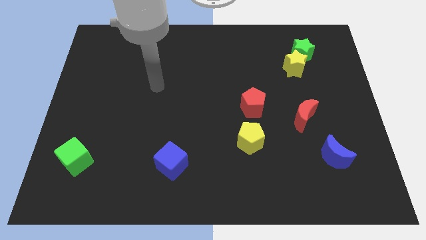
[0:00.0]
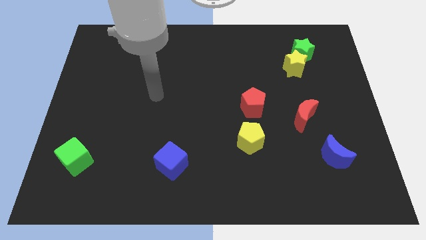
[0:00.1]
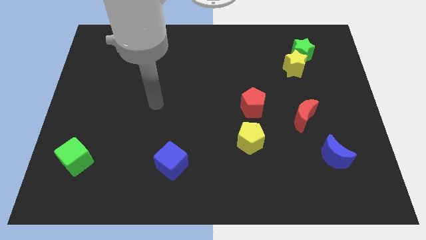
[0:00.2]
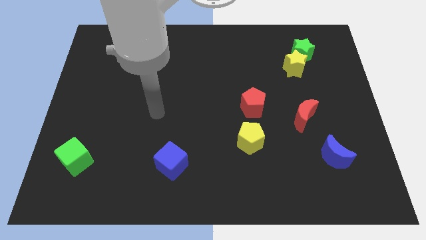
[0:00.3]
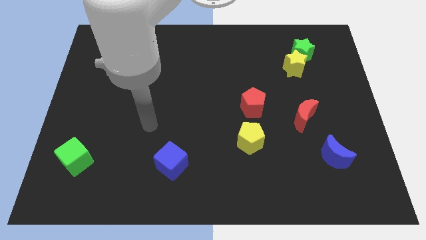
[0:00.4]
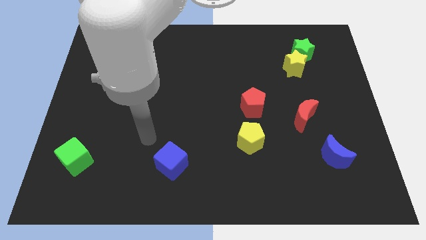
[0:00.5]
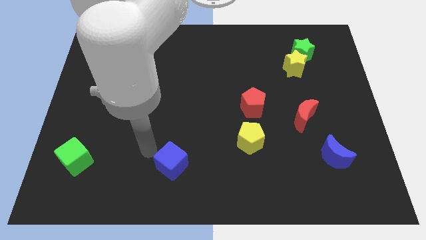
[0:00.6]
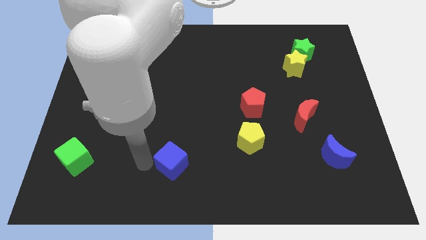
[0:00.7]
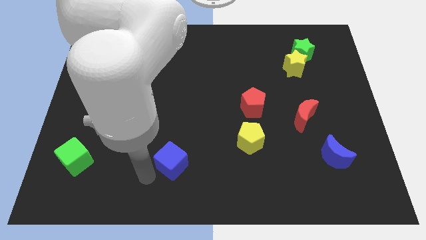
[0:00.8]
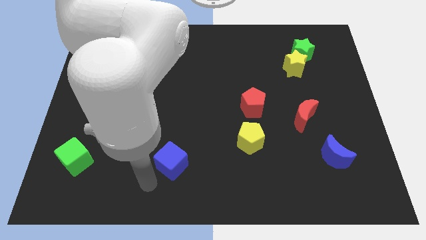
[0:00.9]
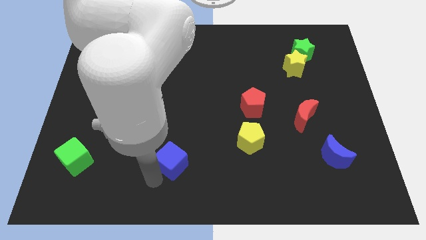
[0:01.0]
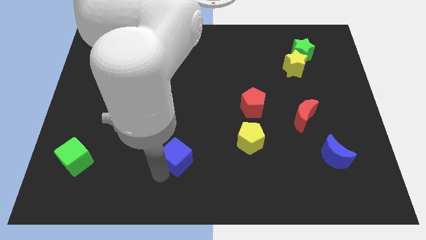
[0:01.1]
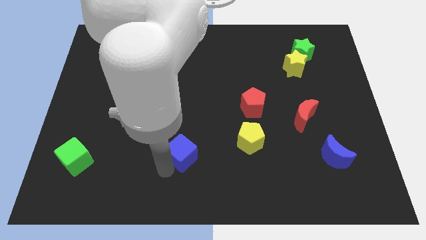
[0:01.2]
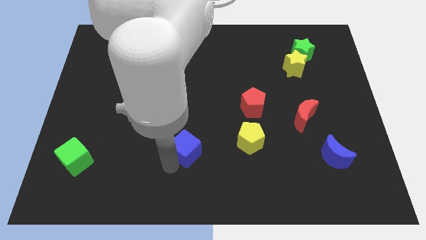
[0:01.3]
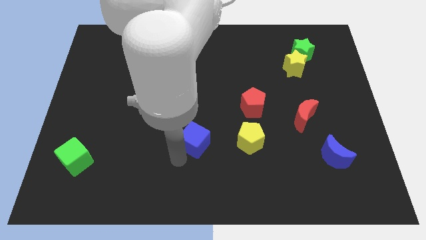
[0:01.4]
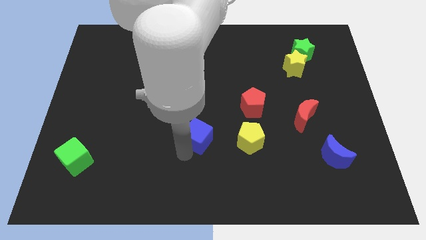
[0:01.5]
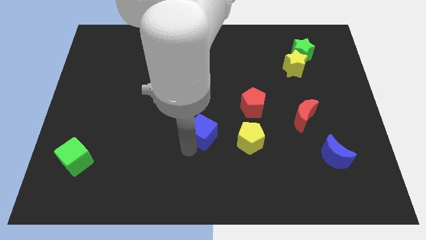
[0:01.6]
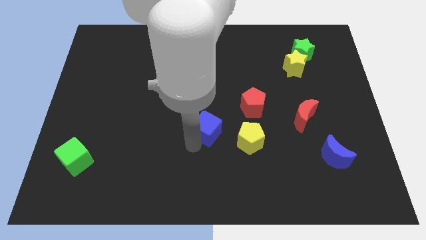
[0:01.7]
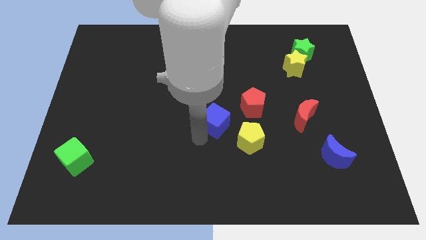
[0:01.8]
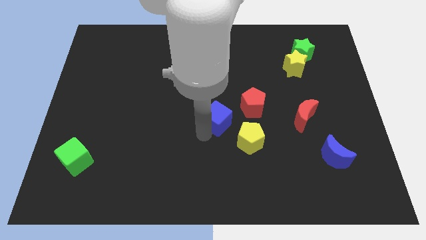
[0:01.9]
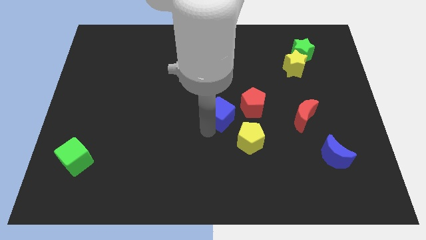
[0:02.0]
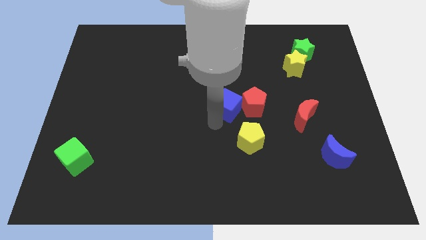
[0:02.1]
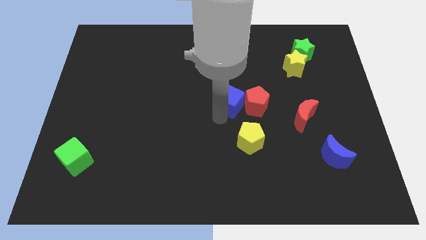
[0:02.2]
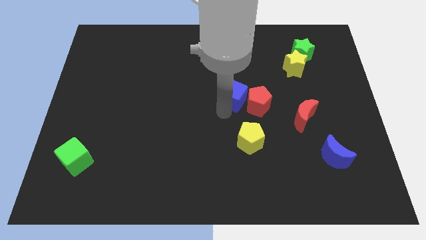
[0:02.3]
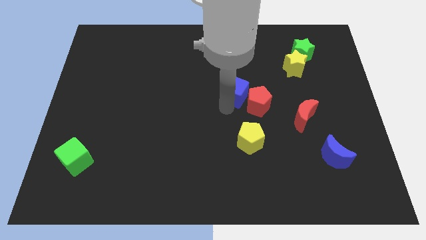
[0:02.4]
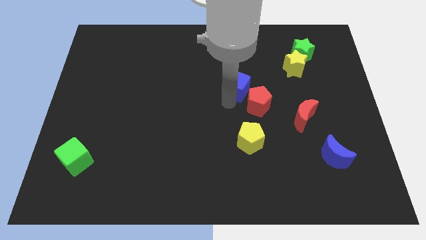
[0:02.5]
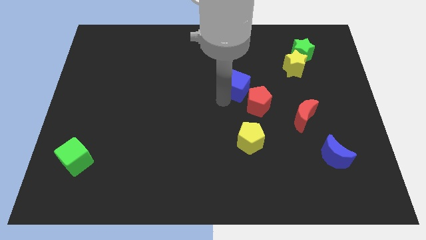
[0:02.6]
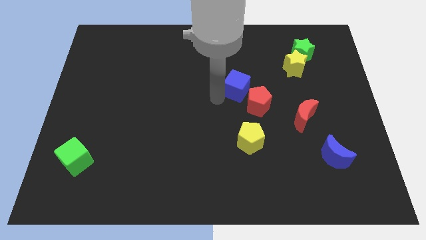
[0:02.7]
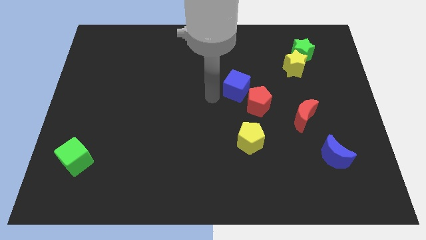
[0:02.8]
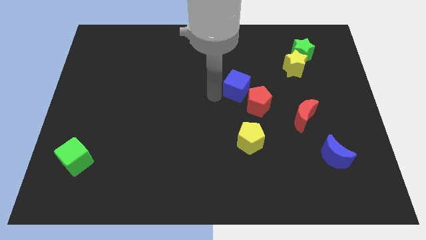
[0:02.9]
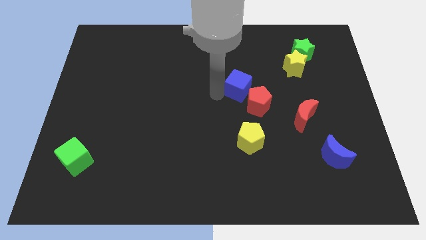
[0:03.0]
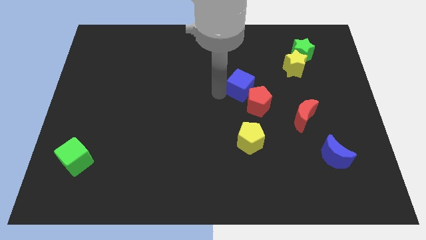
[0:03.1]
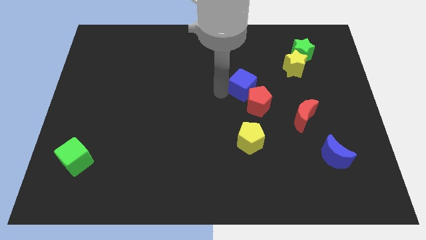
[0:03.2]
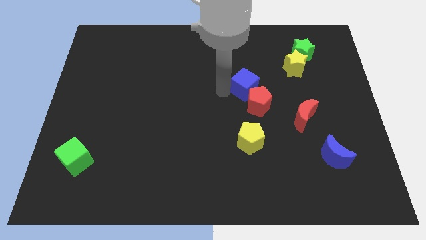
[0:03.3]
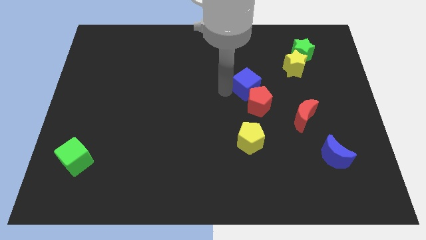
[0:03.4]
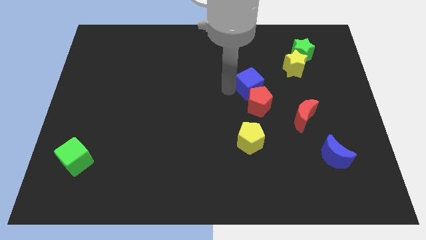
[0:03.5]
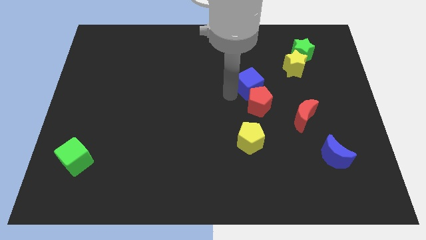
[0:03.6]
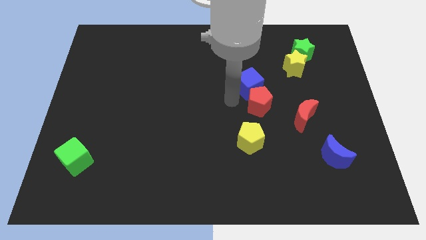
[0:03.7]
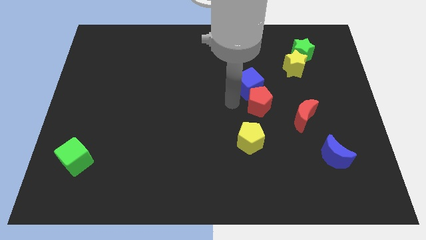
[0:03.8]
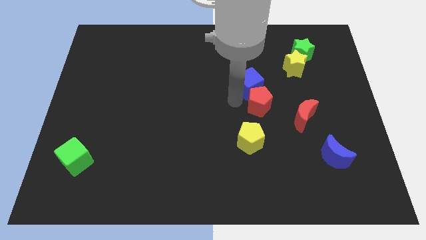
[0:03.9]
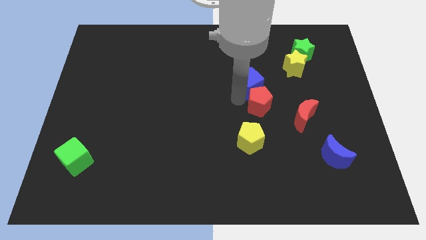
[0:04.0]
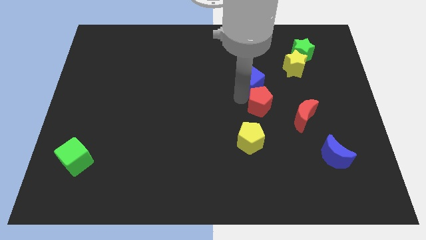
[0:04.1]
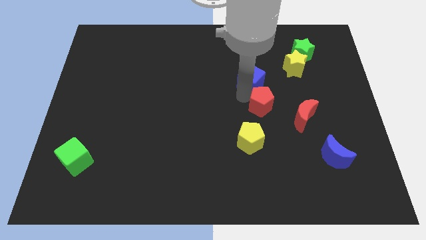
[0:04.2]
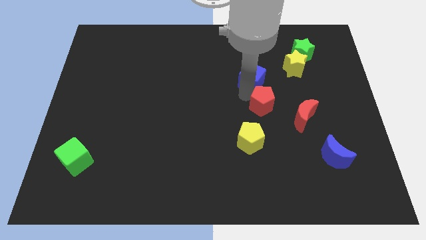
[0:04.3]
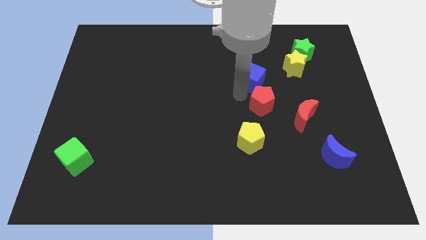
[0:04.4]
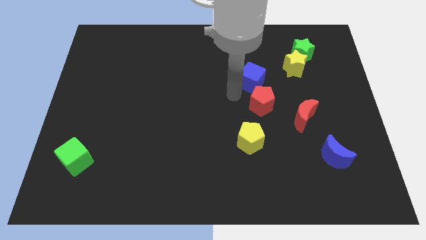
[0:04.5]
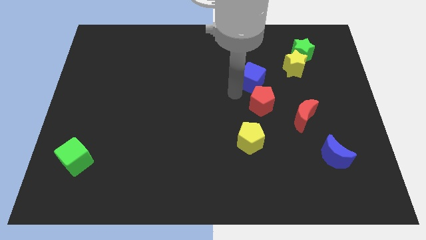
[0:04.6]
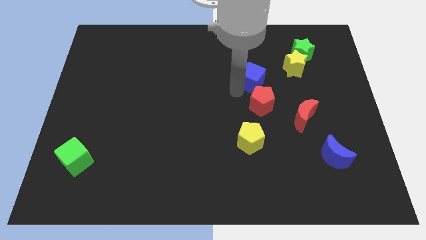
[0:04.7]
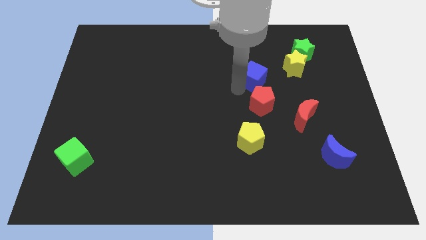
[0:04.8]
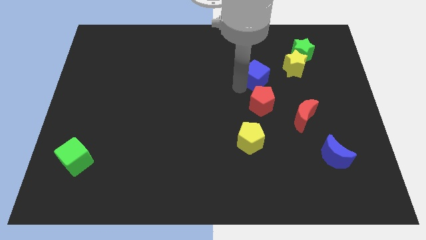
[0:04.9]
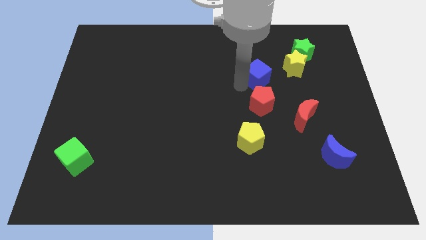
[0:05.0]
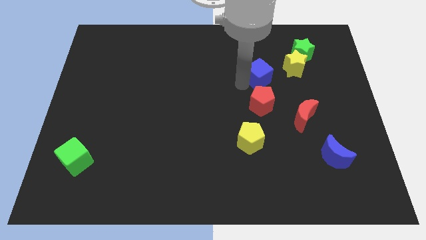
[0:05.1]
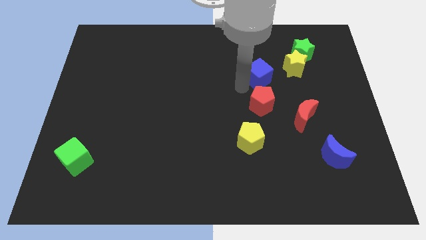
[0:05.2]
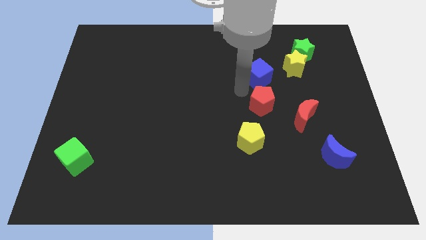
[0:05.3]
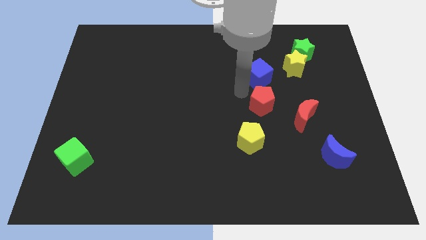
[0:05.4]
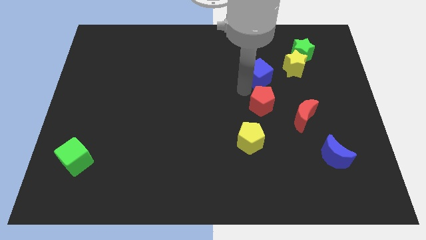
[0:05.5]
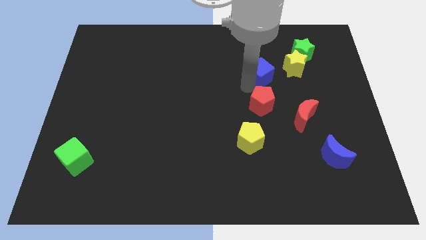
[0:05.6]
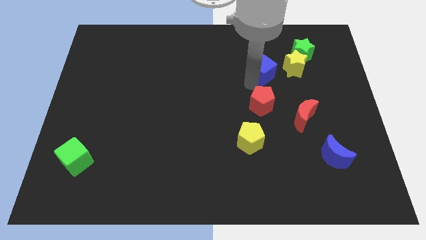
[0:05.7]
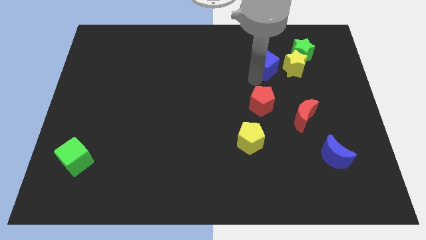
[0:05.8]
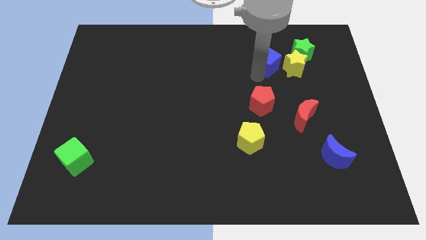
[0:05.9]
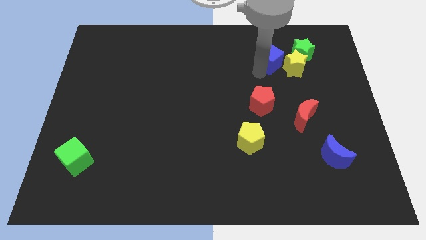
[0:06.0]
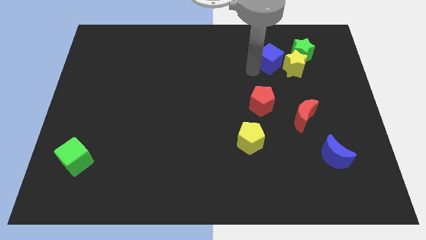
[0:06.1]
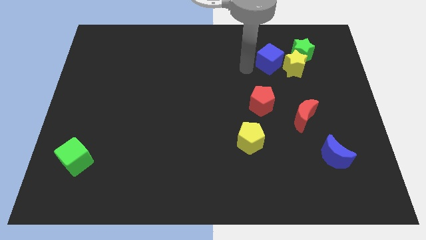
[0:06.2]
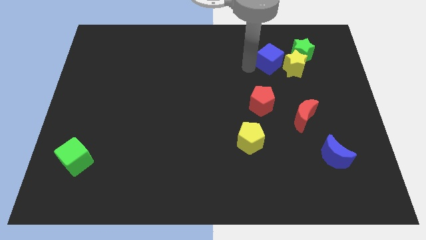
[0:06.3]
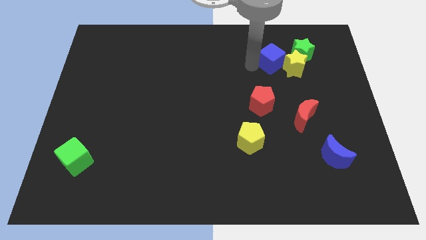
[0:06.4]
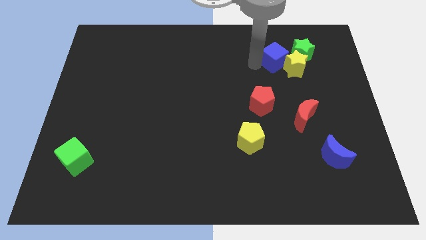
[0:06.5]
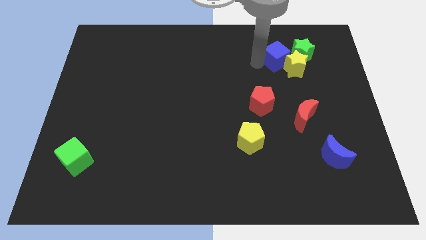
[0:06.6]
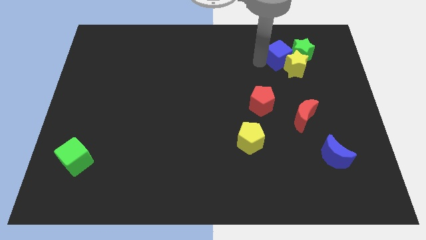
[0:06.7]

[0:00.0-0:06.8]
put the blue cube next to the green star

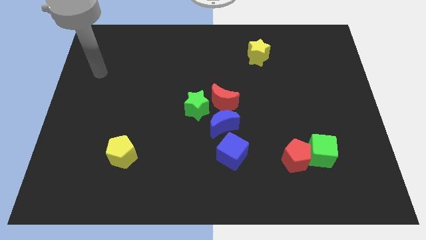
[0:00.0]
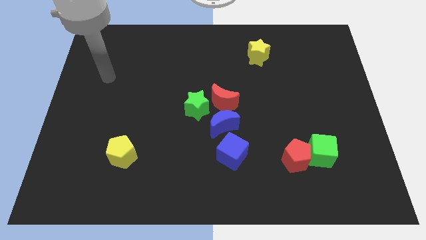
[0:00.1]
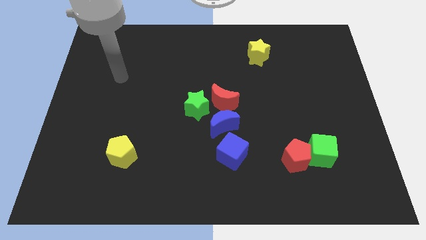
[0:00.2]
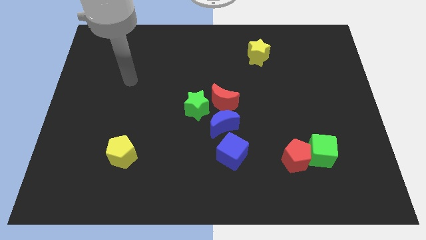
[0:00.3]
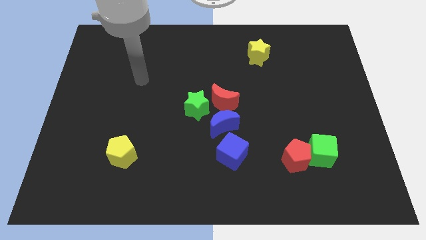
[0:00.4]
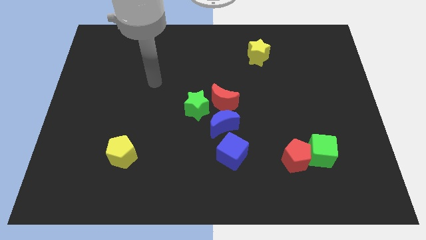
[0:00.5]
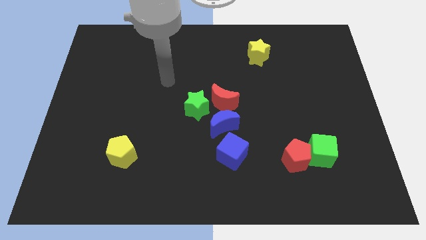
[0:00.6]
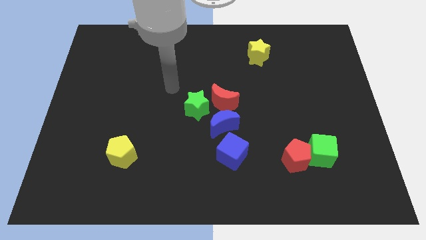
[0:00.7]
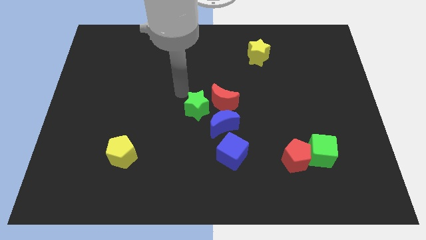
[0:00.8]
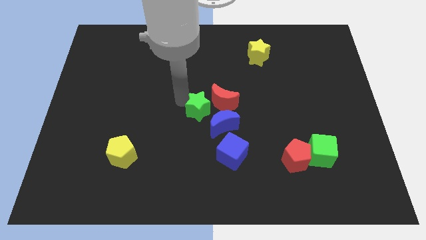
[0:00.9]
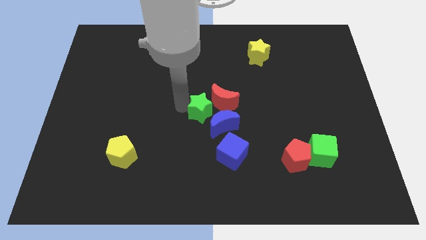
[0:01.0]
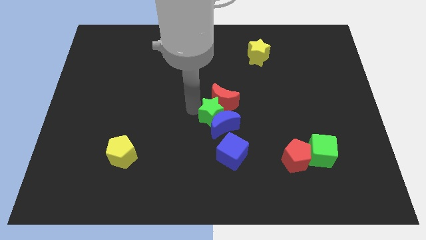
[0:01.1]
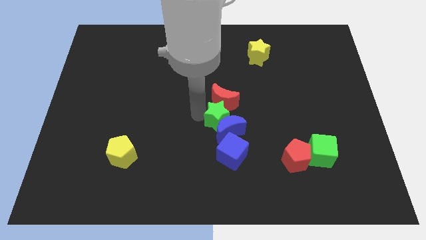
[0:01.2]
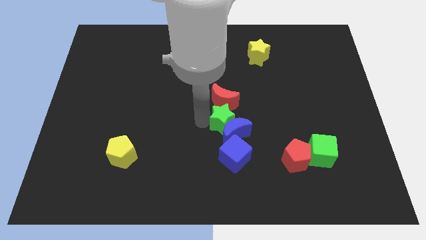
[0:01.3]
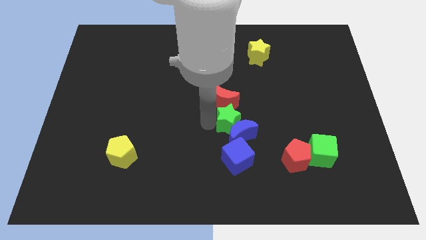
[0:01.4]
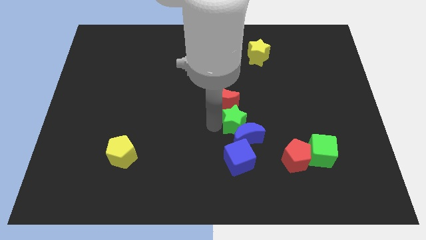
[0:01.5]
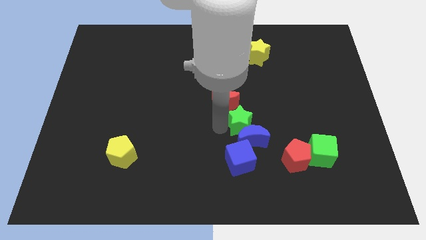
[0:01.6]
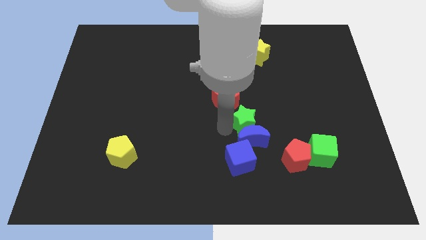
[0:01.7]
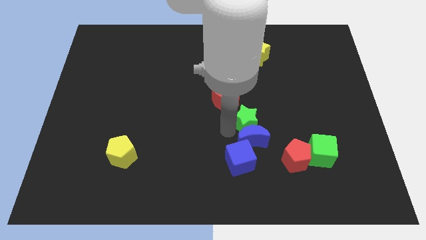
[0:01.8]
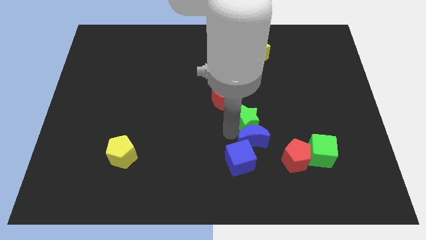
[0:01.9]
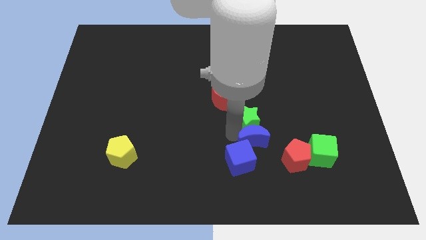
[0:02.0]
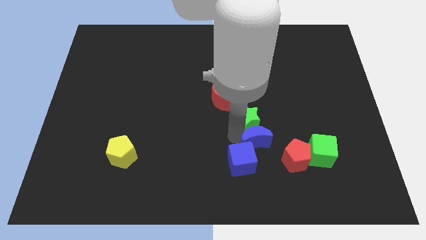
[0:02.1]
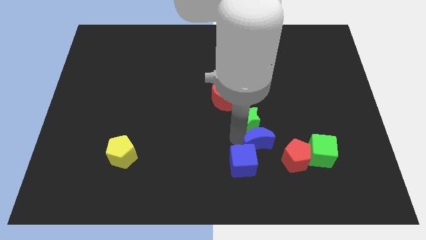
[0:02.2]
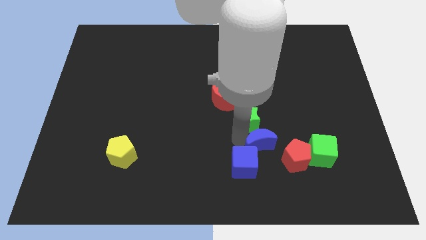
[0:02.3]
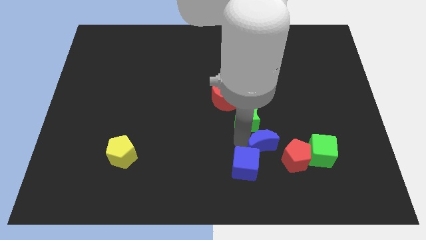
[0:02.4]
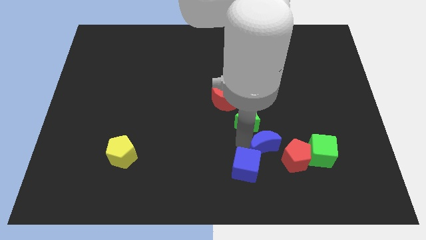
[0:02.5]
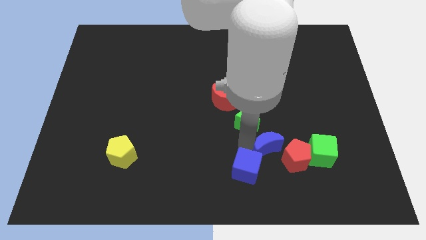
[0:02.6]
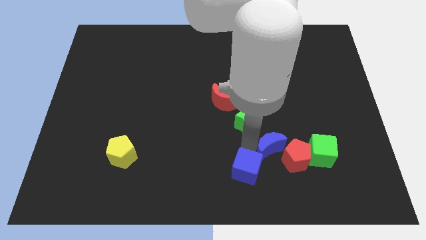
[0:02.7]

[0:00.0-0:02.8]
push the blue moon to the red pentagon
